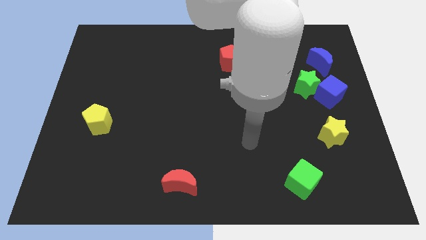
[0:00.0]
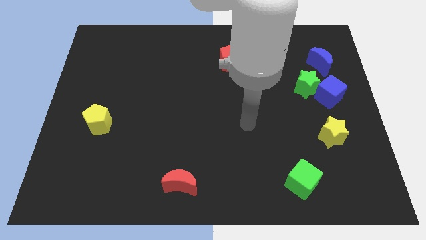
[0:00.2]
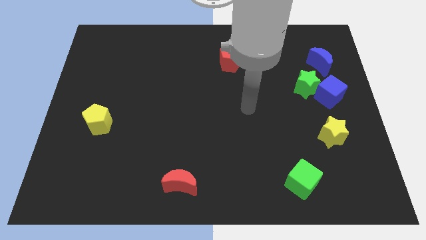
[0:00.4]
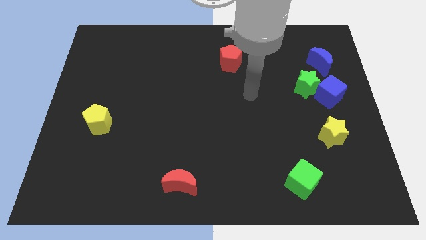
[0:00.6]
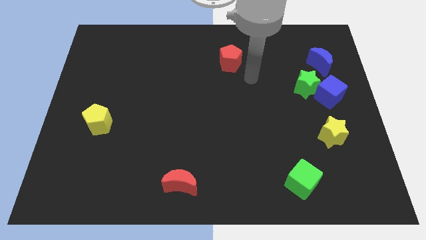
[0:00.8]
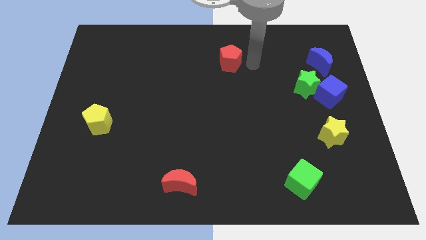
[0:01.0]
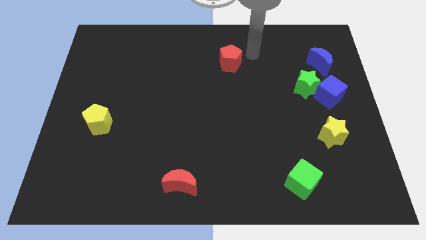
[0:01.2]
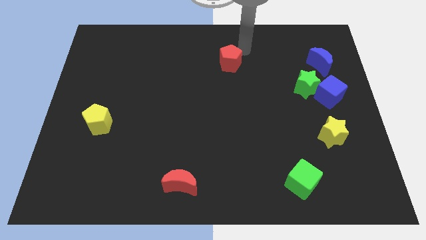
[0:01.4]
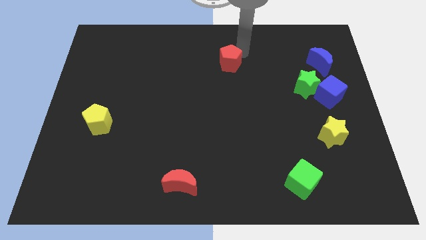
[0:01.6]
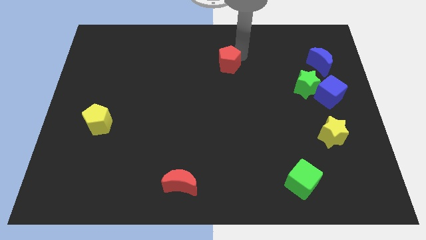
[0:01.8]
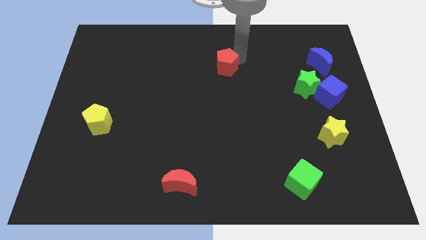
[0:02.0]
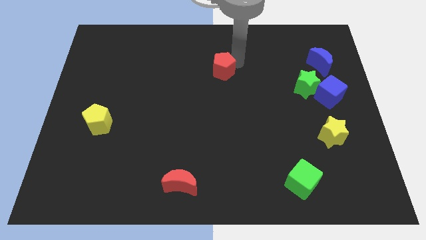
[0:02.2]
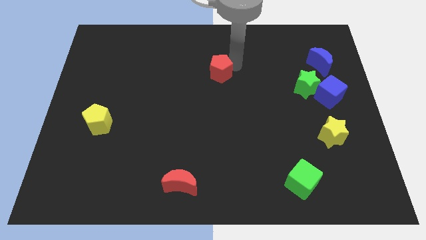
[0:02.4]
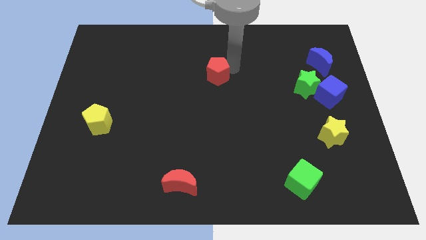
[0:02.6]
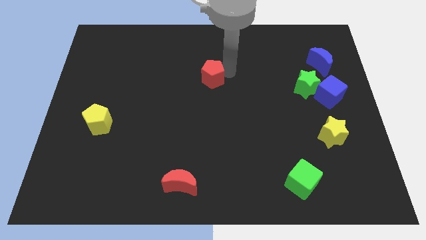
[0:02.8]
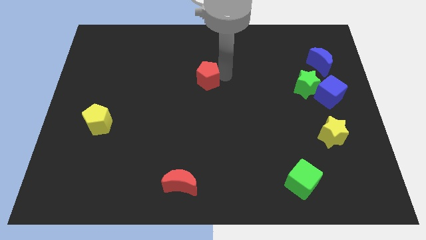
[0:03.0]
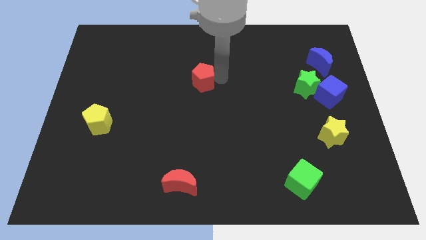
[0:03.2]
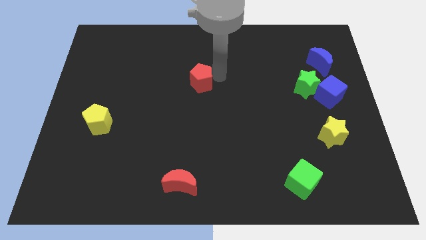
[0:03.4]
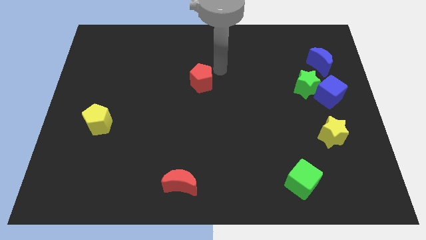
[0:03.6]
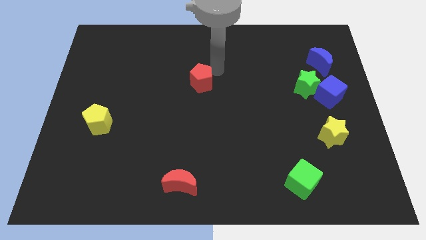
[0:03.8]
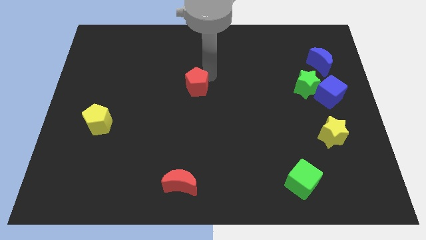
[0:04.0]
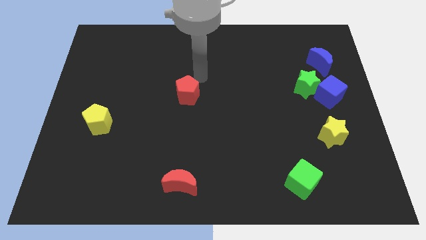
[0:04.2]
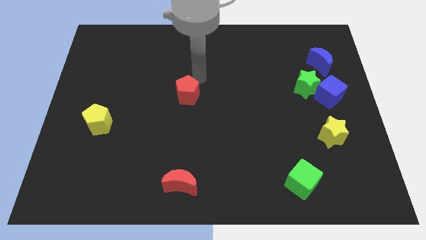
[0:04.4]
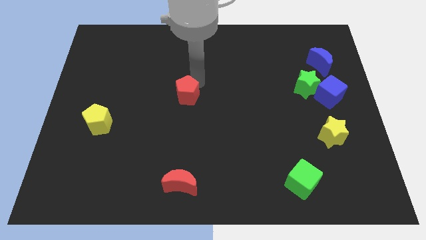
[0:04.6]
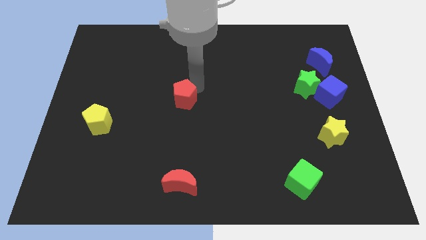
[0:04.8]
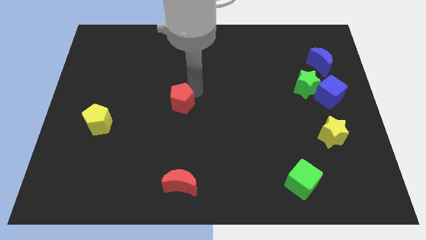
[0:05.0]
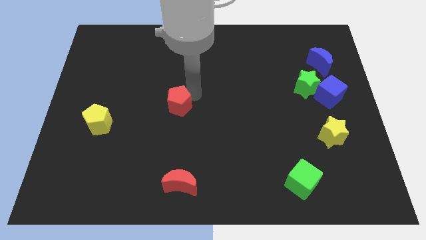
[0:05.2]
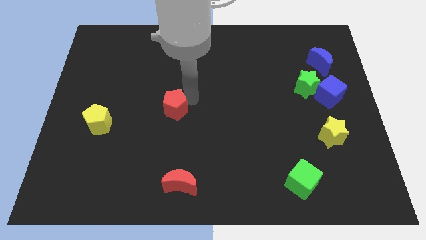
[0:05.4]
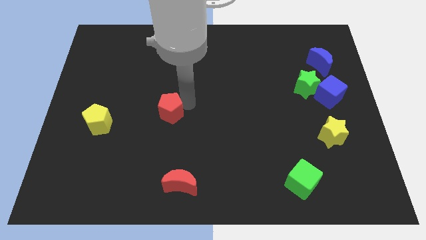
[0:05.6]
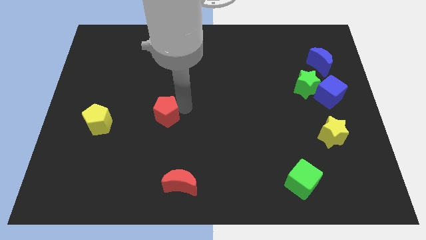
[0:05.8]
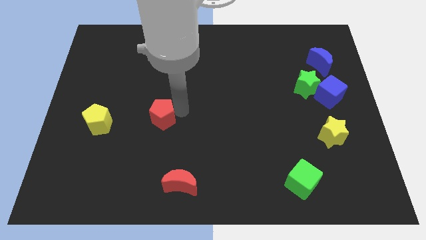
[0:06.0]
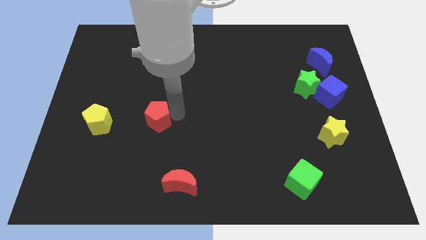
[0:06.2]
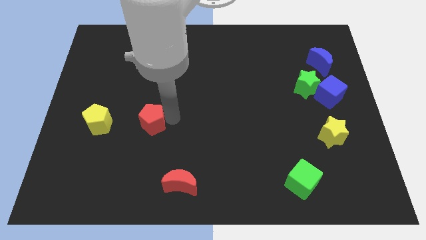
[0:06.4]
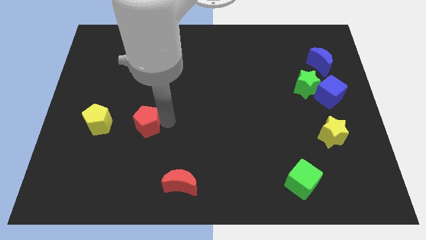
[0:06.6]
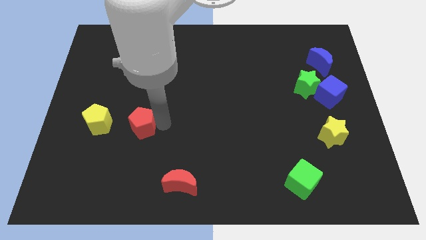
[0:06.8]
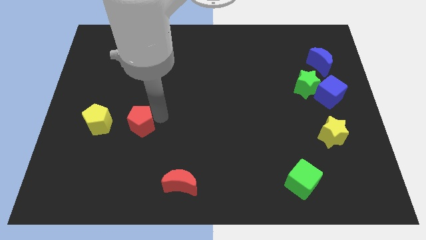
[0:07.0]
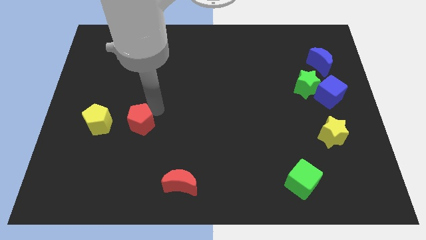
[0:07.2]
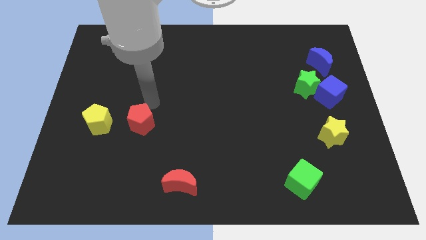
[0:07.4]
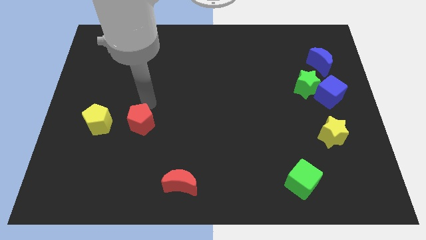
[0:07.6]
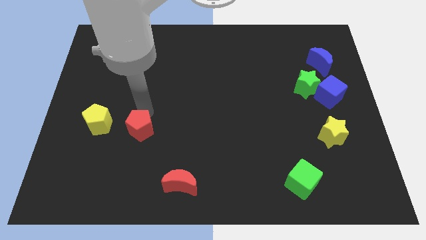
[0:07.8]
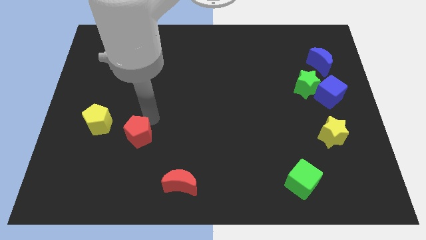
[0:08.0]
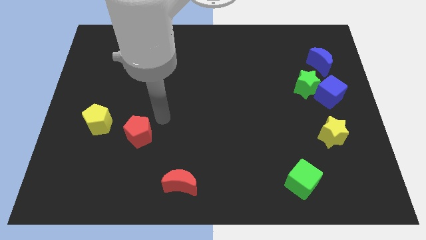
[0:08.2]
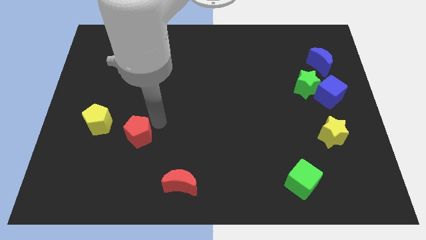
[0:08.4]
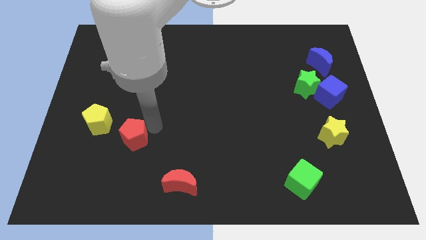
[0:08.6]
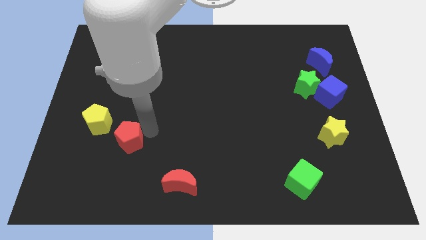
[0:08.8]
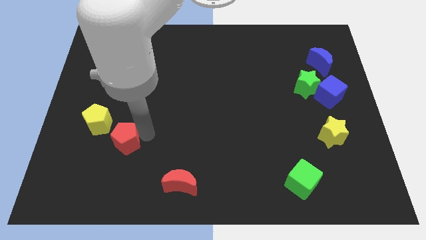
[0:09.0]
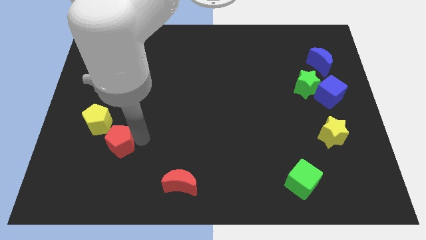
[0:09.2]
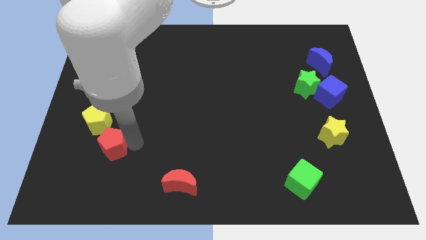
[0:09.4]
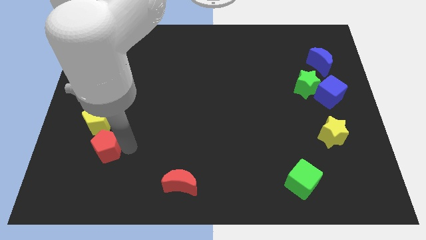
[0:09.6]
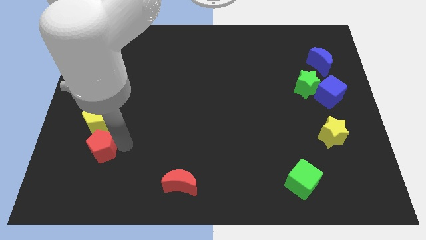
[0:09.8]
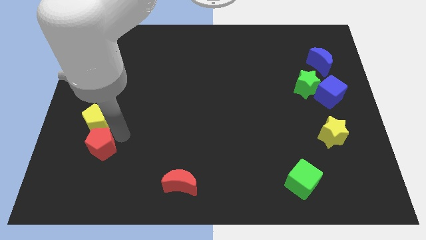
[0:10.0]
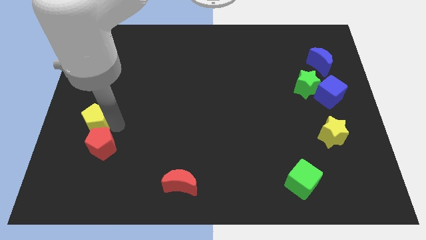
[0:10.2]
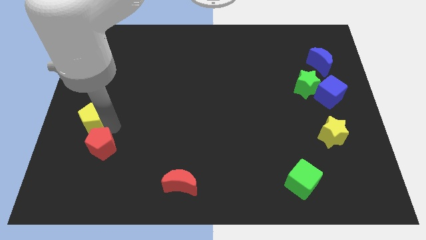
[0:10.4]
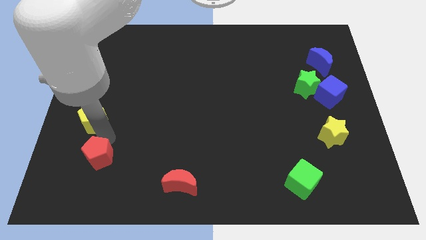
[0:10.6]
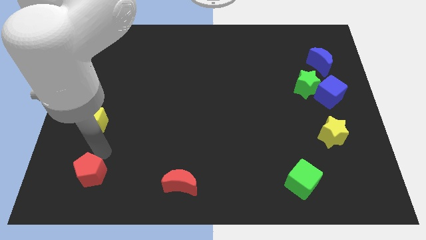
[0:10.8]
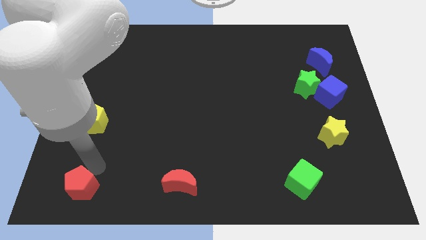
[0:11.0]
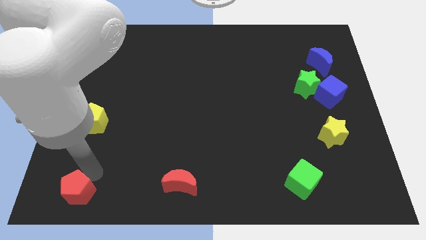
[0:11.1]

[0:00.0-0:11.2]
push the red pentagon to the bottom left corner
